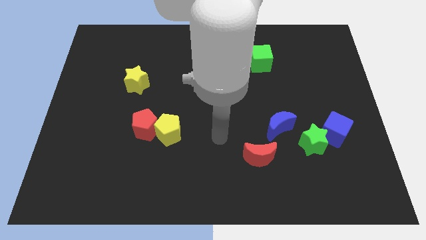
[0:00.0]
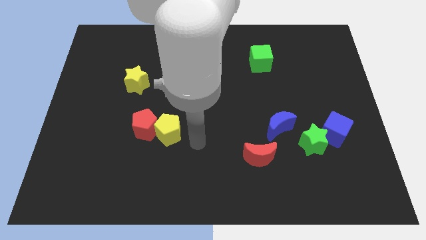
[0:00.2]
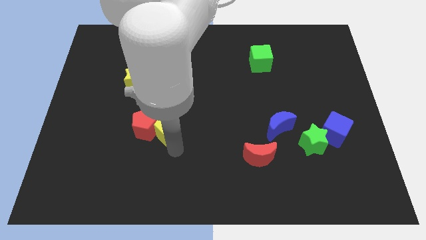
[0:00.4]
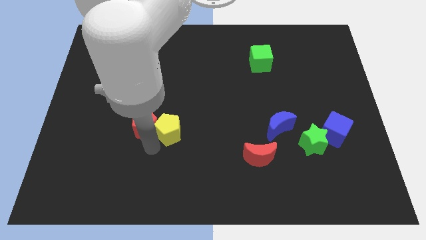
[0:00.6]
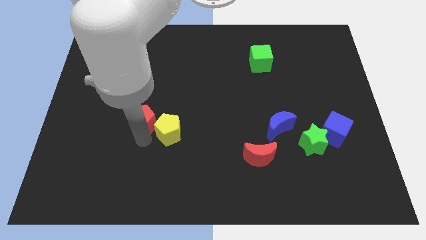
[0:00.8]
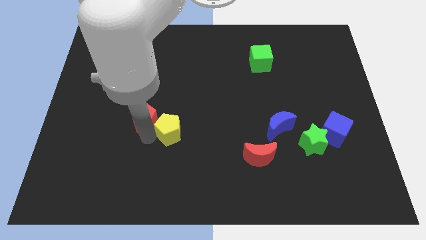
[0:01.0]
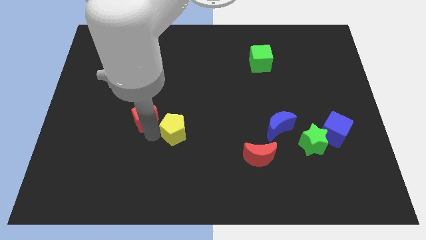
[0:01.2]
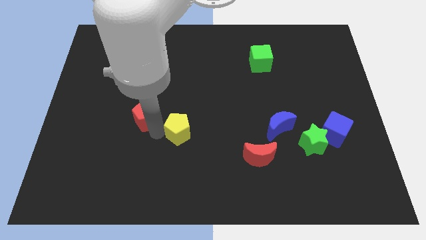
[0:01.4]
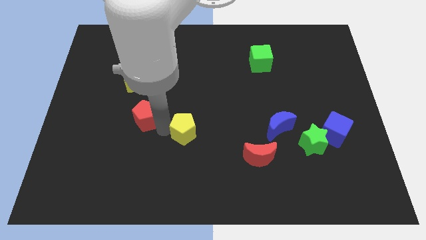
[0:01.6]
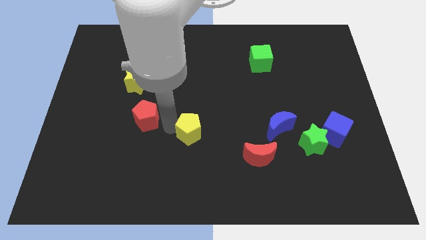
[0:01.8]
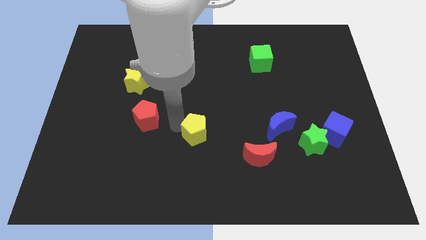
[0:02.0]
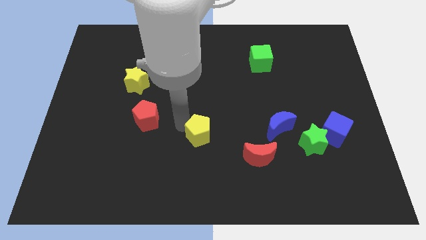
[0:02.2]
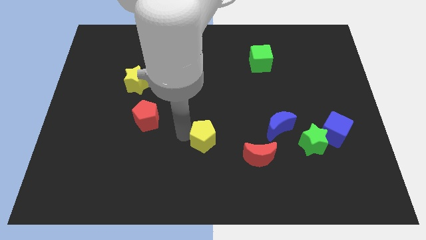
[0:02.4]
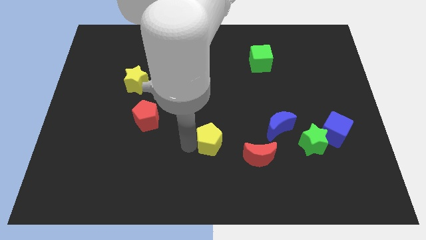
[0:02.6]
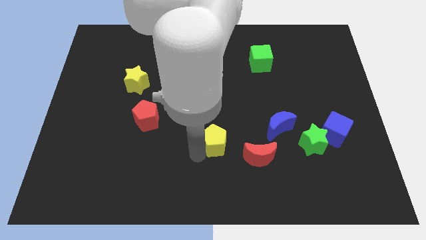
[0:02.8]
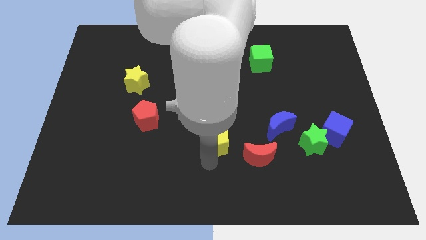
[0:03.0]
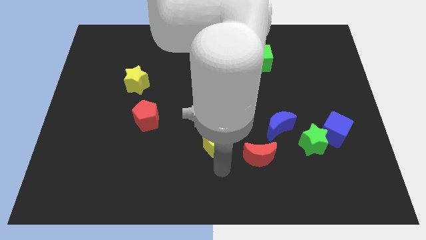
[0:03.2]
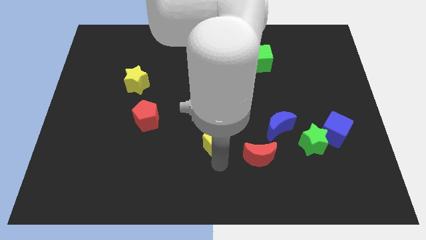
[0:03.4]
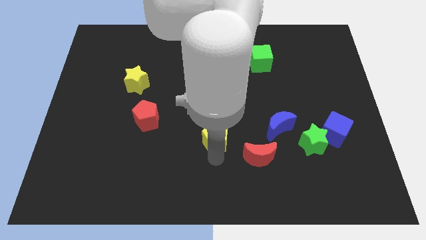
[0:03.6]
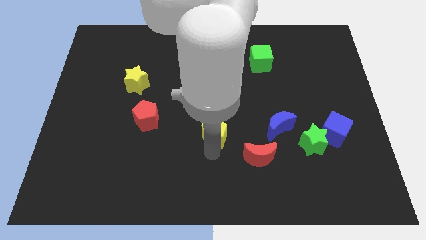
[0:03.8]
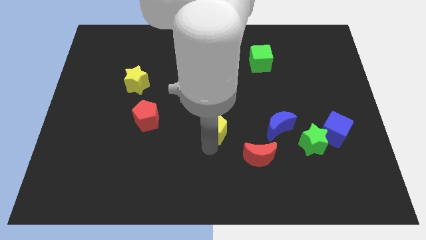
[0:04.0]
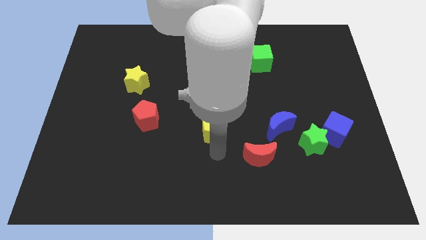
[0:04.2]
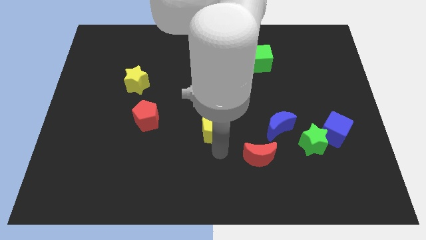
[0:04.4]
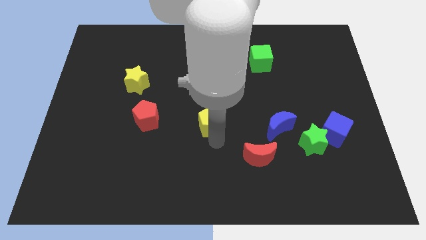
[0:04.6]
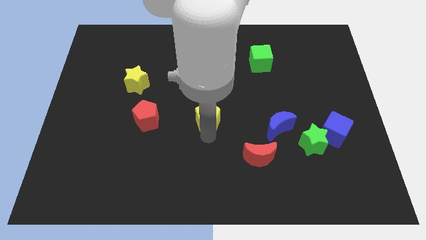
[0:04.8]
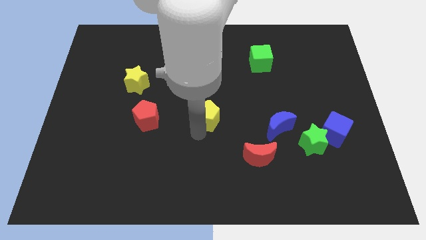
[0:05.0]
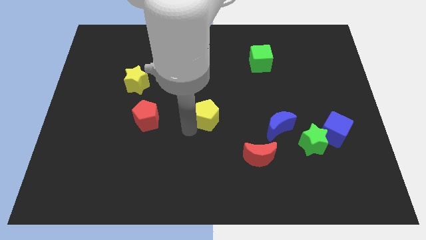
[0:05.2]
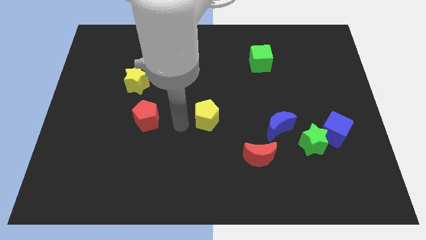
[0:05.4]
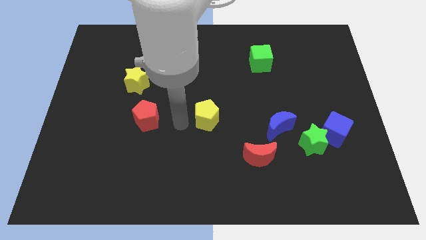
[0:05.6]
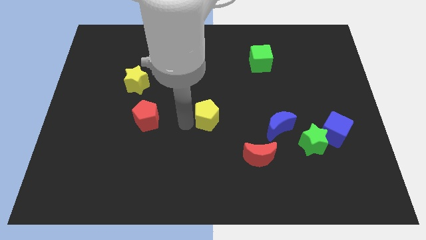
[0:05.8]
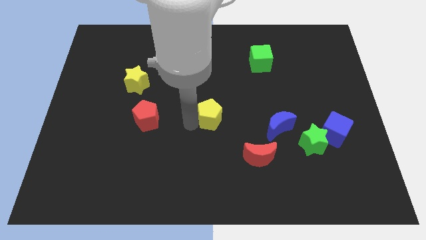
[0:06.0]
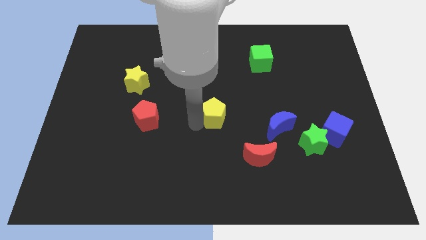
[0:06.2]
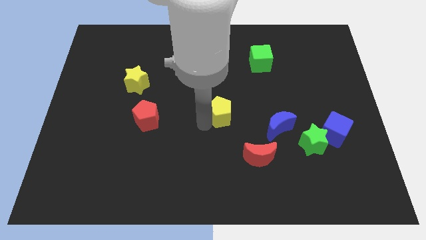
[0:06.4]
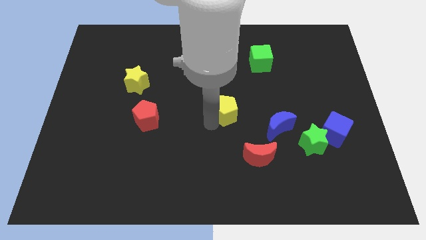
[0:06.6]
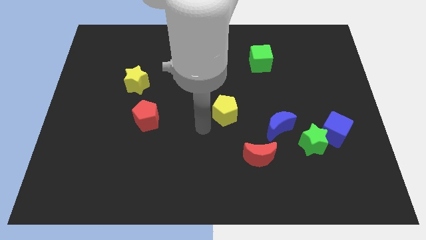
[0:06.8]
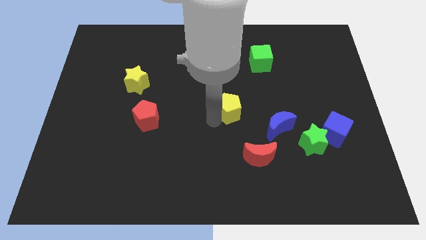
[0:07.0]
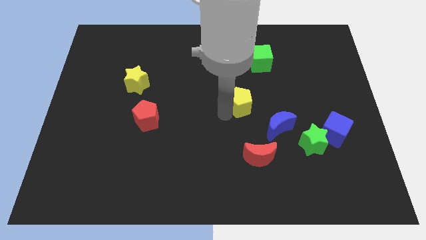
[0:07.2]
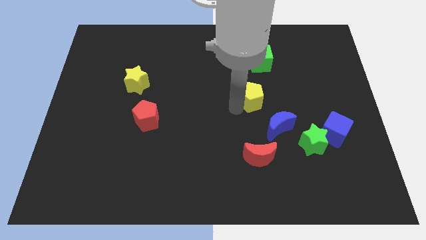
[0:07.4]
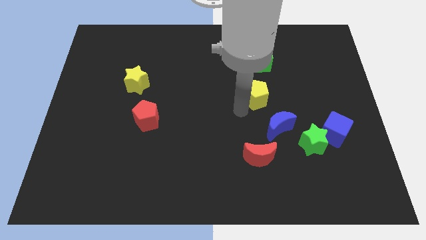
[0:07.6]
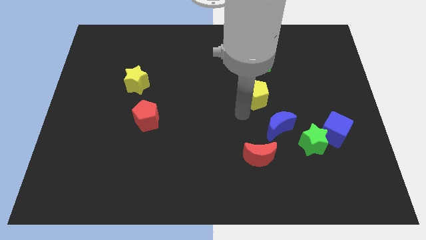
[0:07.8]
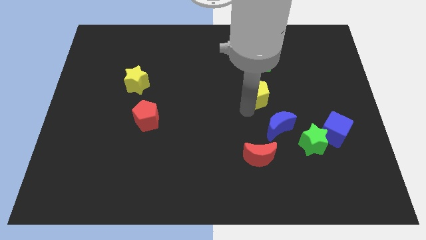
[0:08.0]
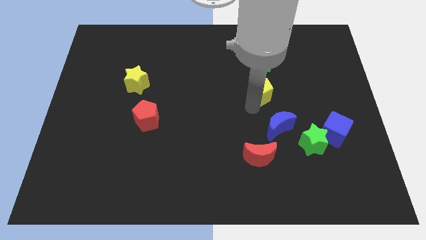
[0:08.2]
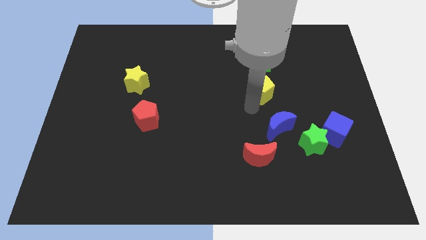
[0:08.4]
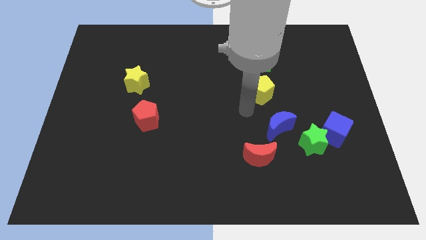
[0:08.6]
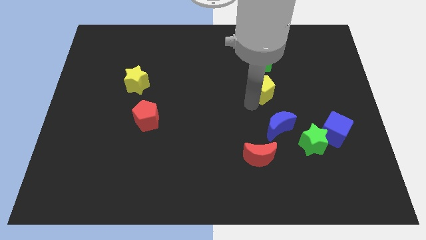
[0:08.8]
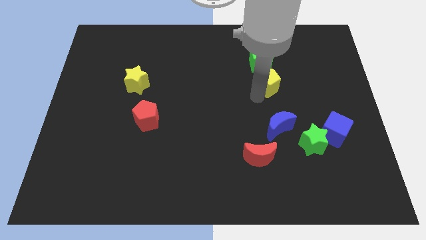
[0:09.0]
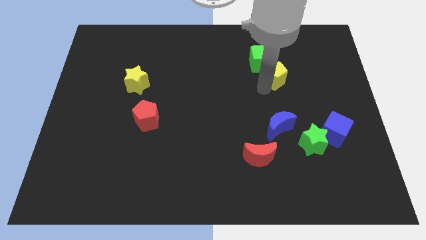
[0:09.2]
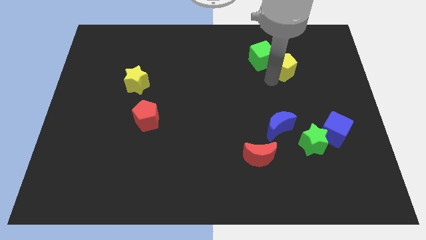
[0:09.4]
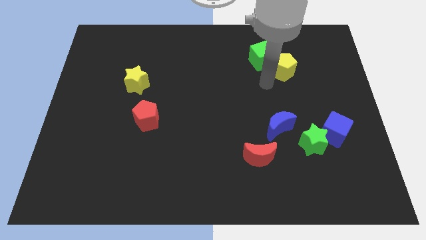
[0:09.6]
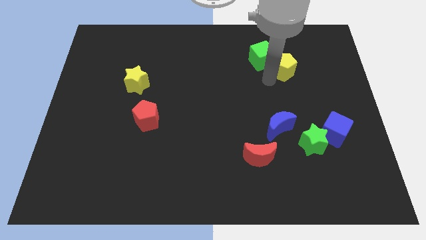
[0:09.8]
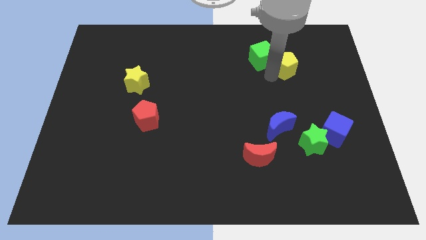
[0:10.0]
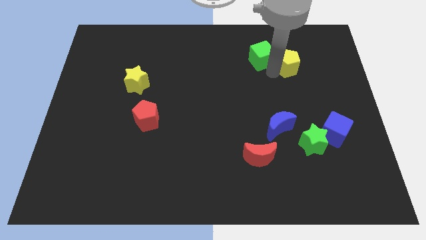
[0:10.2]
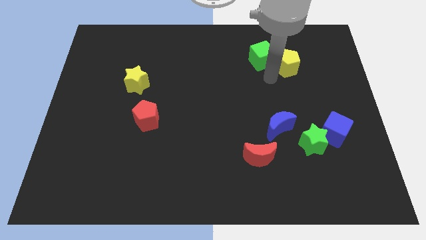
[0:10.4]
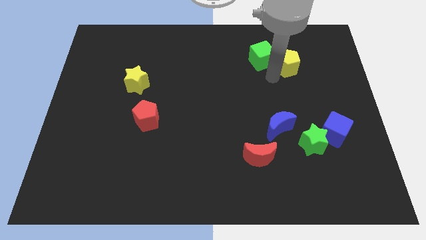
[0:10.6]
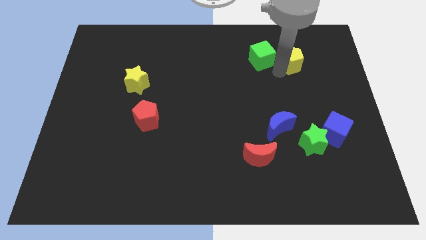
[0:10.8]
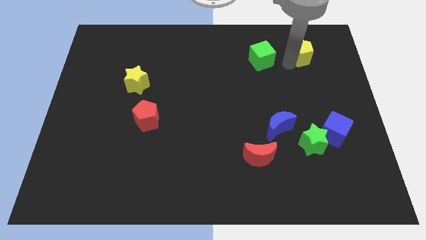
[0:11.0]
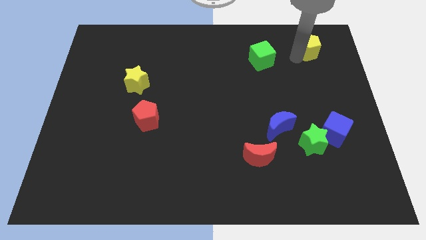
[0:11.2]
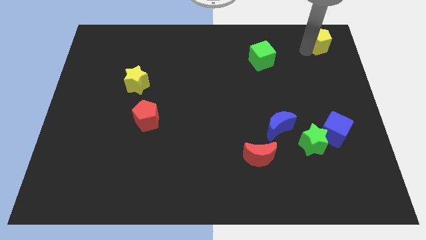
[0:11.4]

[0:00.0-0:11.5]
push the yellow pentagon to the top right corner
